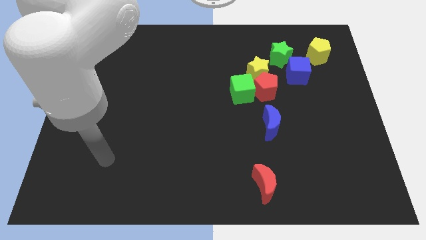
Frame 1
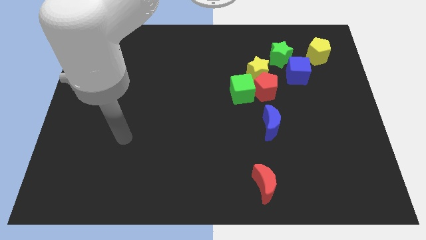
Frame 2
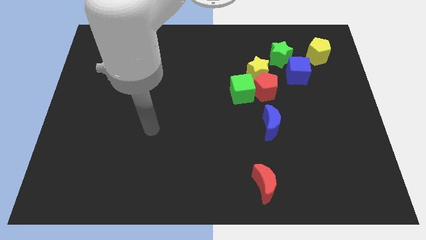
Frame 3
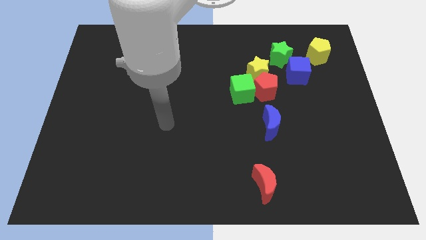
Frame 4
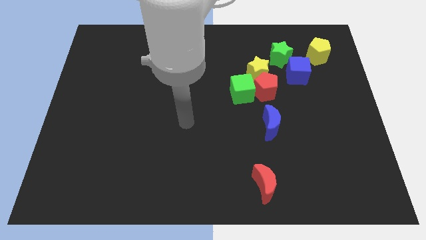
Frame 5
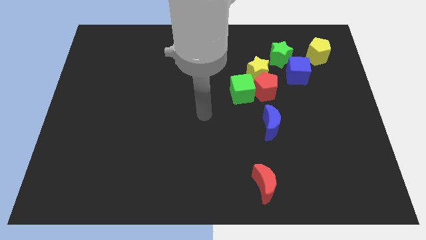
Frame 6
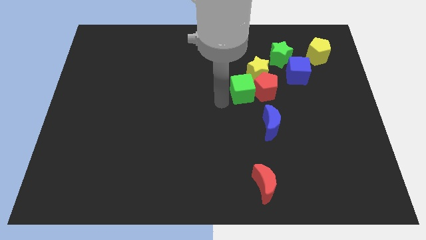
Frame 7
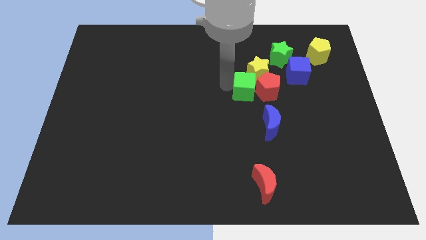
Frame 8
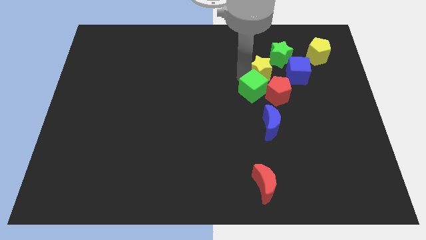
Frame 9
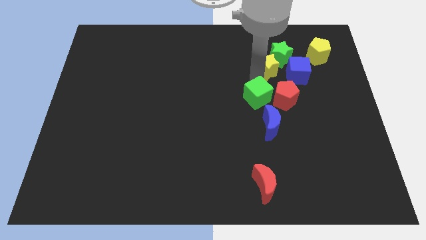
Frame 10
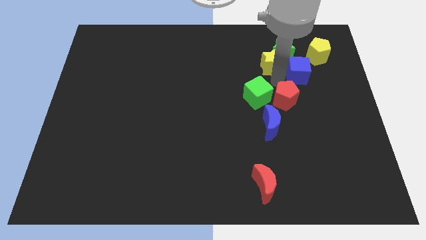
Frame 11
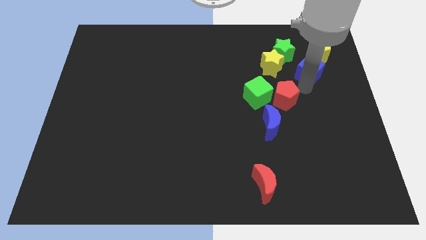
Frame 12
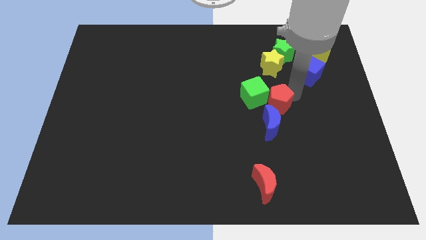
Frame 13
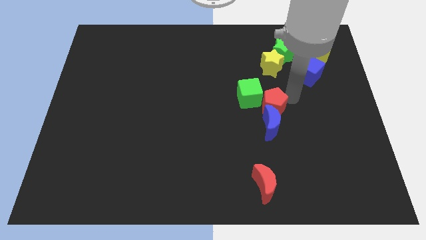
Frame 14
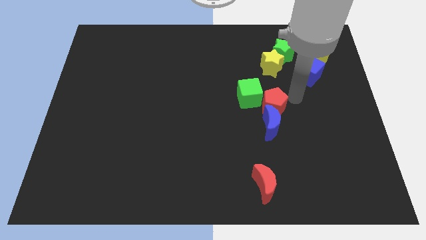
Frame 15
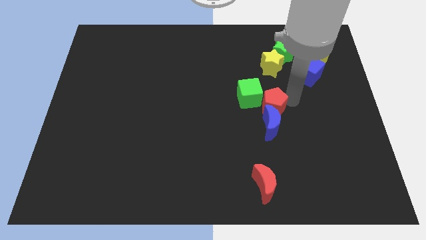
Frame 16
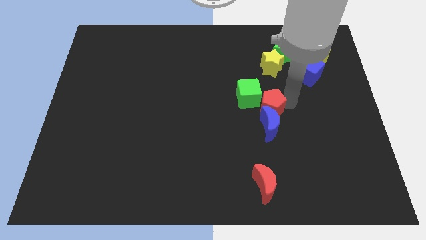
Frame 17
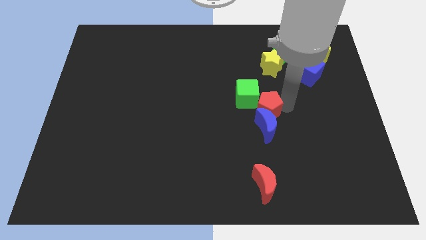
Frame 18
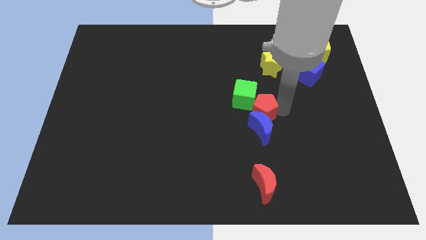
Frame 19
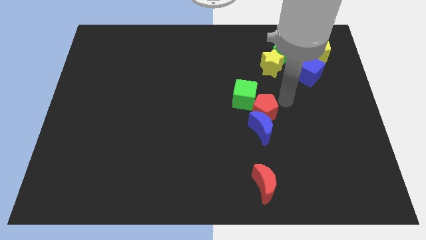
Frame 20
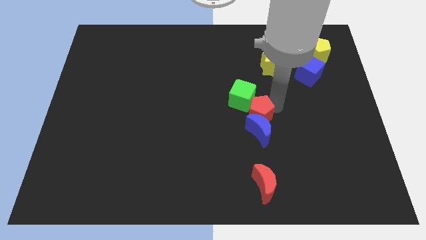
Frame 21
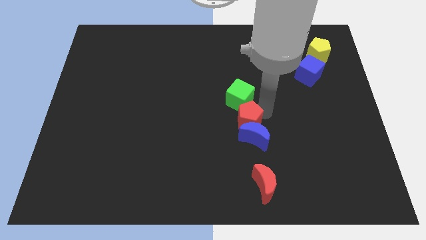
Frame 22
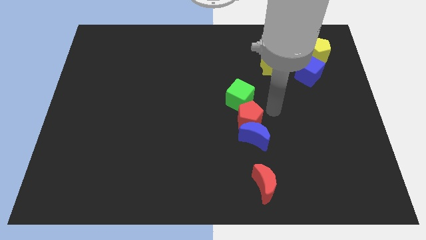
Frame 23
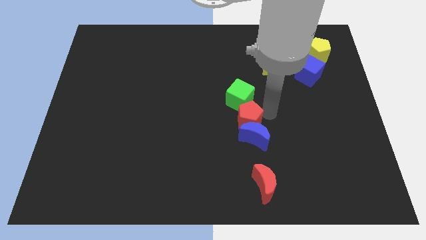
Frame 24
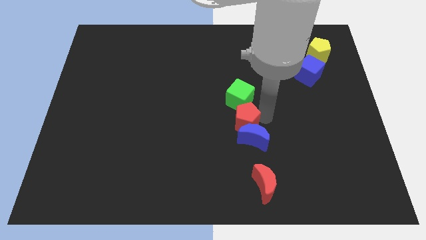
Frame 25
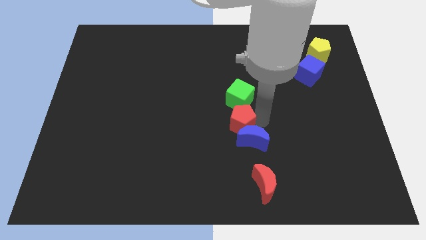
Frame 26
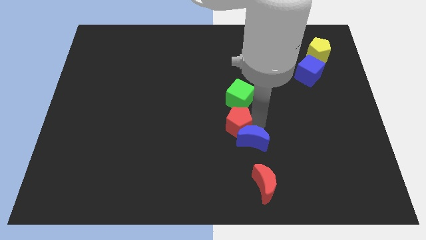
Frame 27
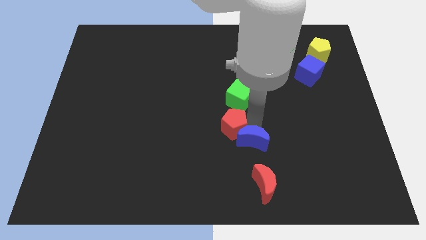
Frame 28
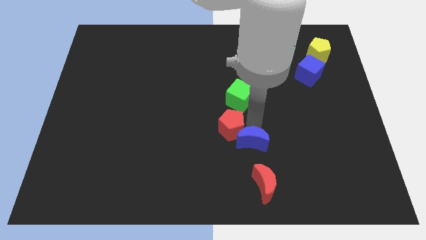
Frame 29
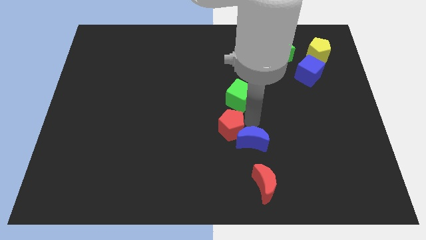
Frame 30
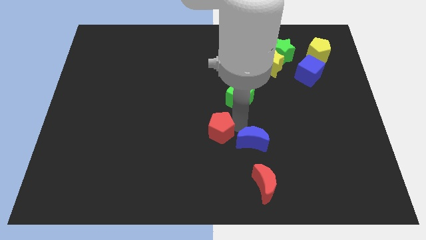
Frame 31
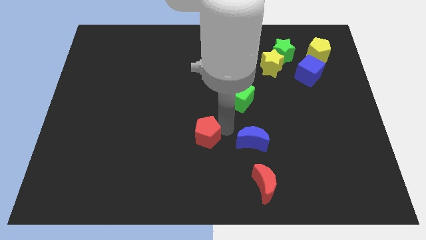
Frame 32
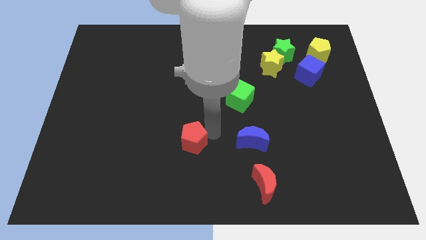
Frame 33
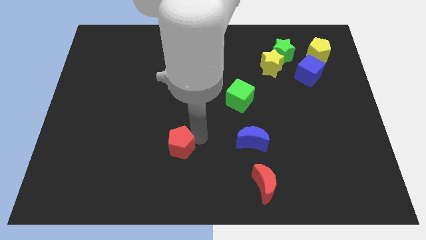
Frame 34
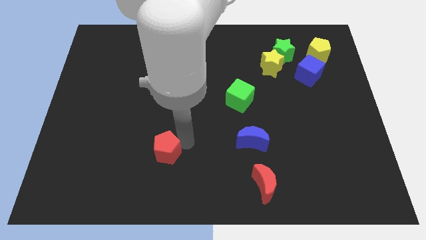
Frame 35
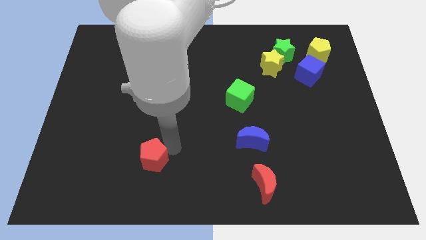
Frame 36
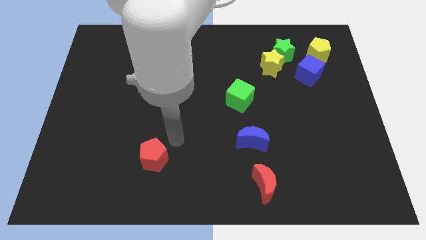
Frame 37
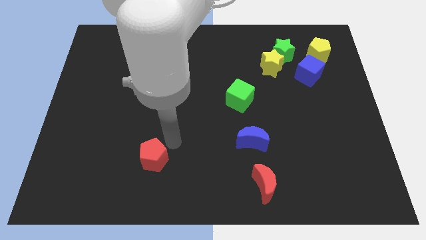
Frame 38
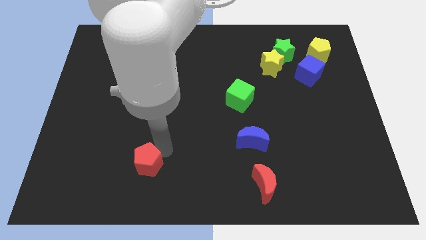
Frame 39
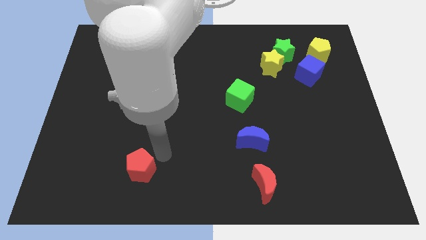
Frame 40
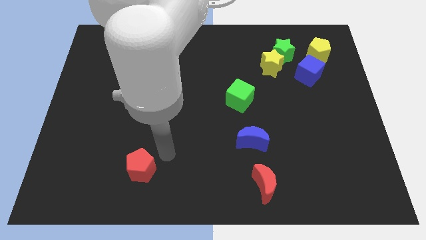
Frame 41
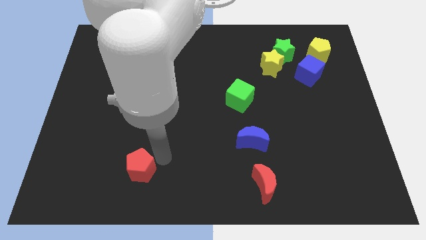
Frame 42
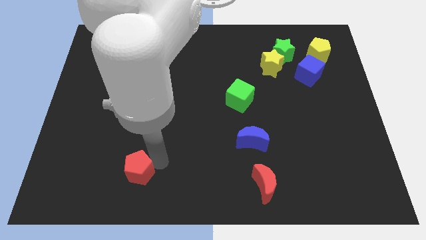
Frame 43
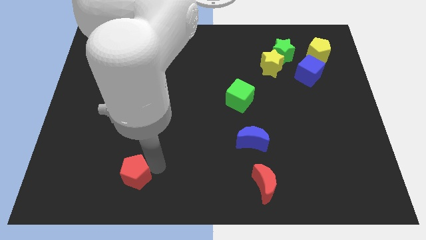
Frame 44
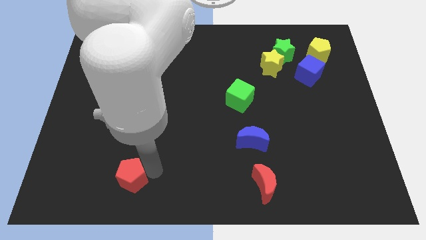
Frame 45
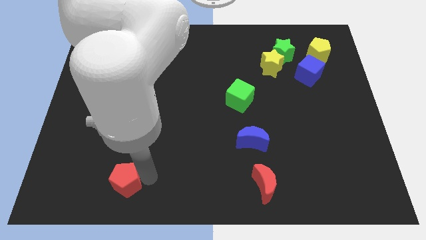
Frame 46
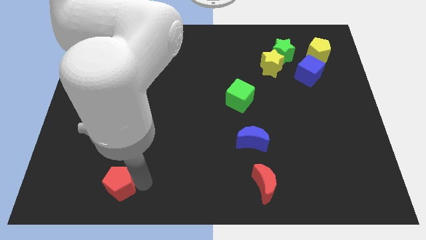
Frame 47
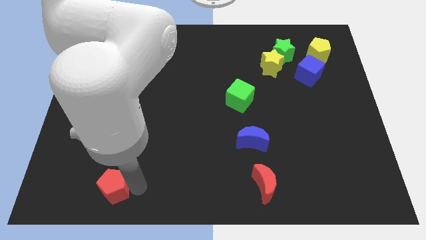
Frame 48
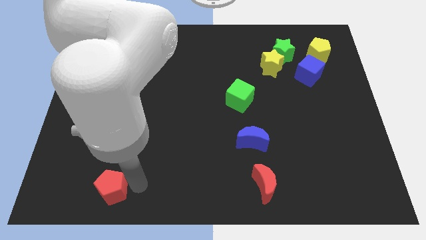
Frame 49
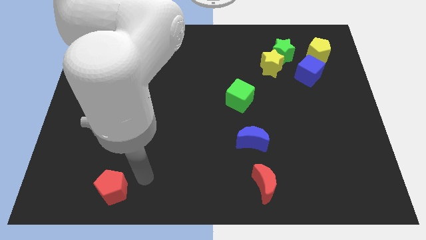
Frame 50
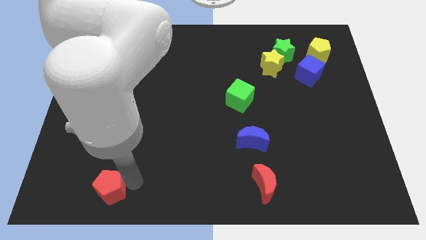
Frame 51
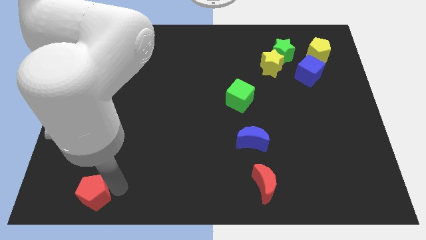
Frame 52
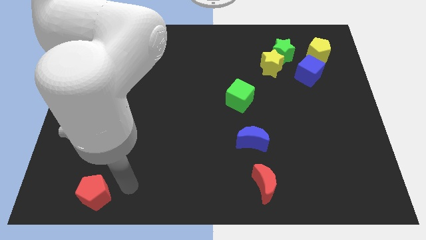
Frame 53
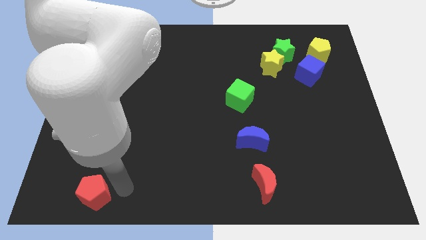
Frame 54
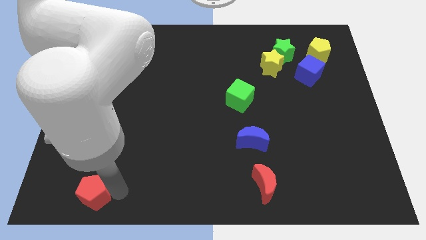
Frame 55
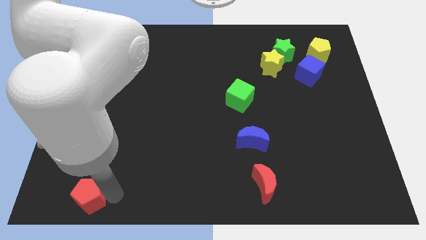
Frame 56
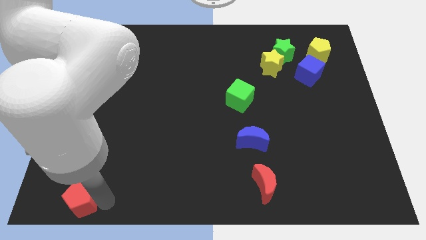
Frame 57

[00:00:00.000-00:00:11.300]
move the red pentagon to the bottom left

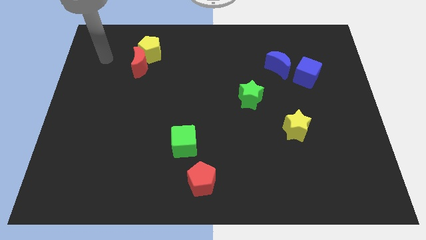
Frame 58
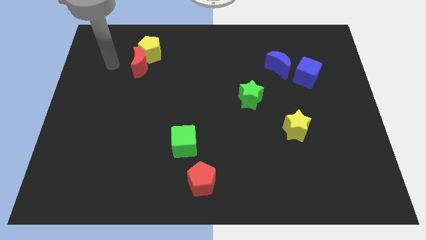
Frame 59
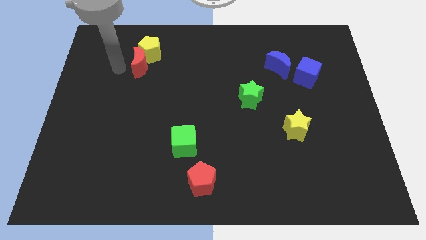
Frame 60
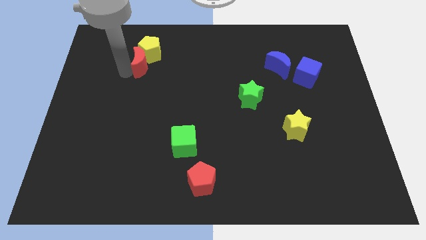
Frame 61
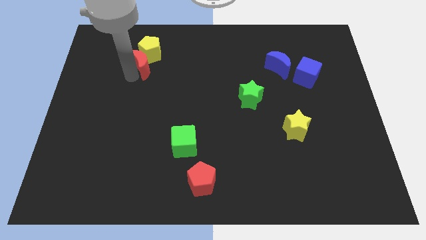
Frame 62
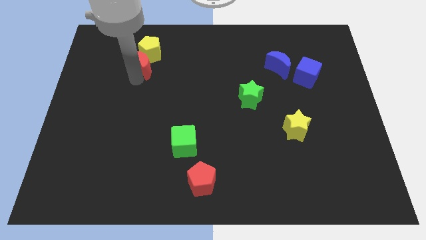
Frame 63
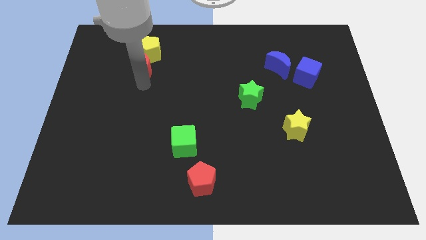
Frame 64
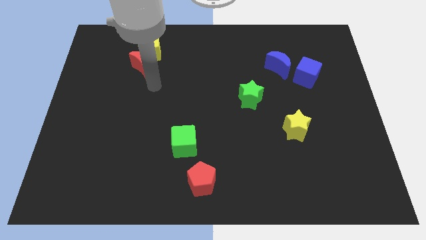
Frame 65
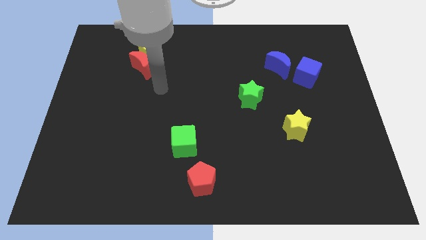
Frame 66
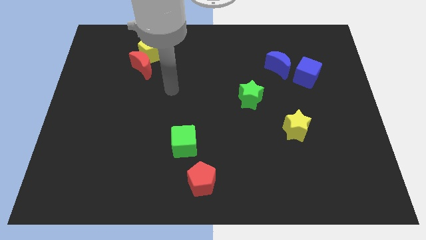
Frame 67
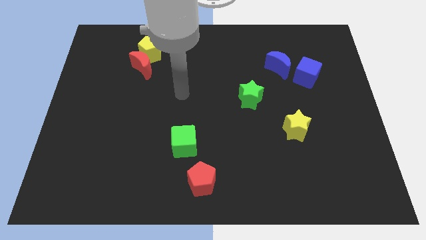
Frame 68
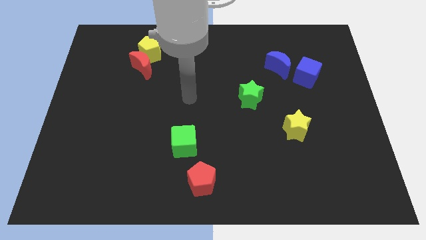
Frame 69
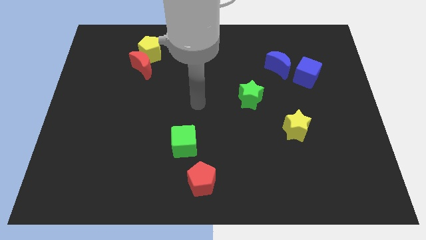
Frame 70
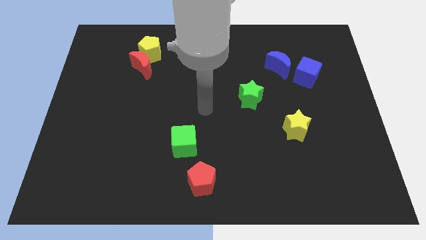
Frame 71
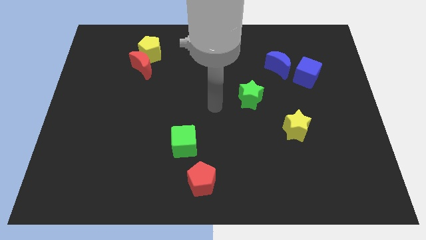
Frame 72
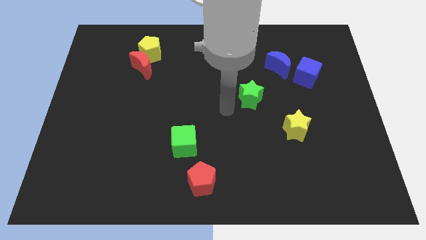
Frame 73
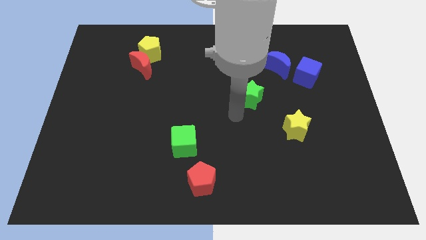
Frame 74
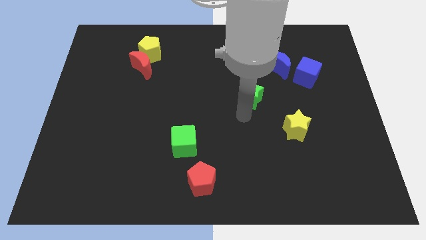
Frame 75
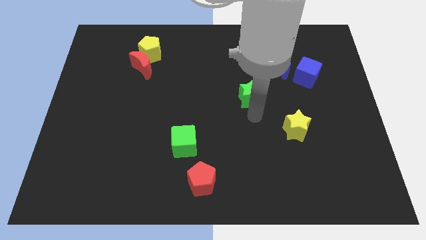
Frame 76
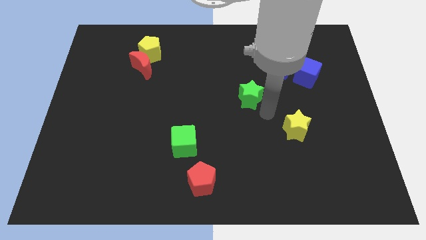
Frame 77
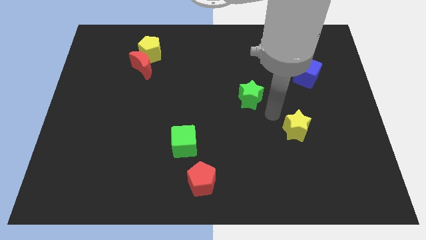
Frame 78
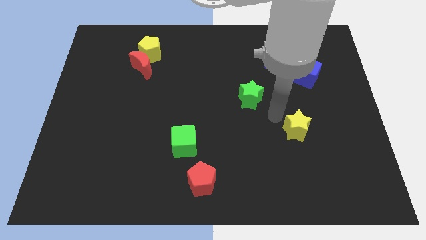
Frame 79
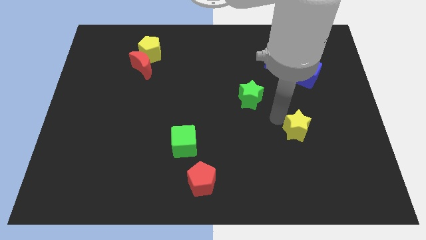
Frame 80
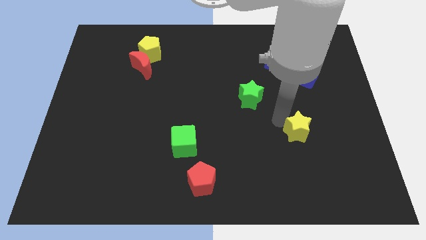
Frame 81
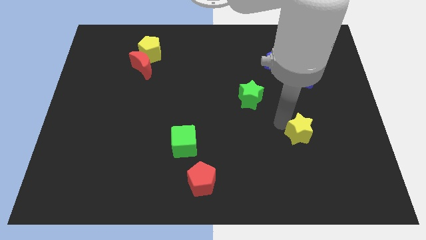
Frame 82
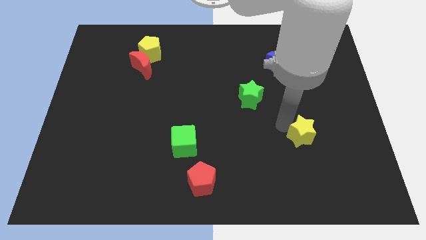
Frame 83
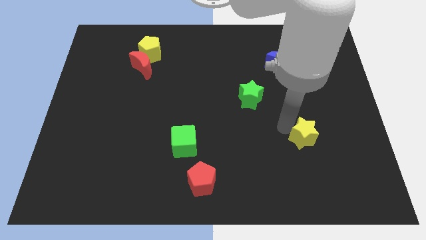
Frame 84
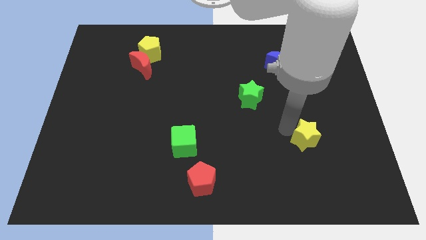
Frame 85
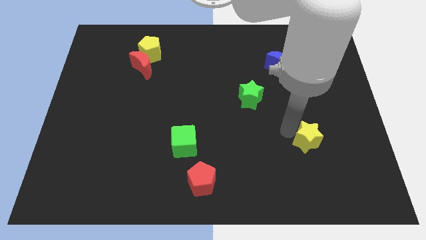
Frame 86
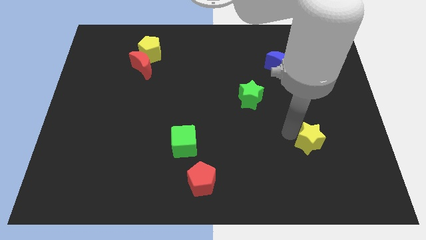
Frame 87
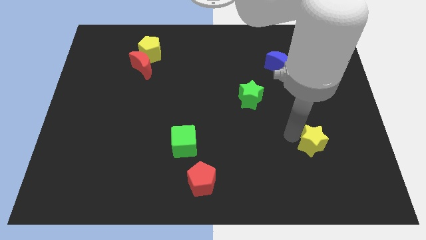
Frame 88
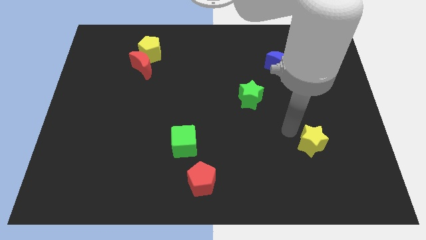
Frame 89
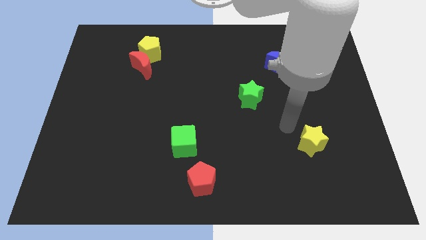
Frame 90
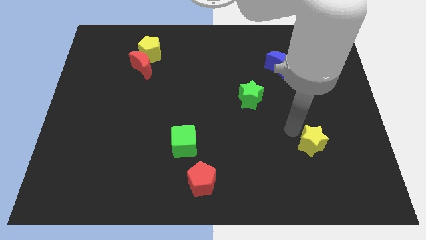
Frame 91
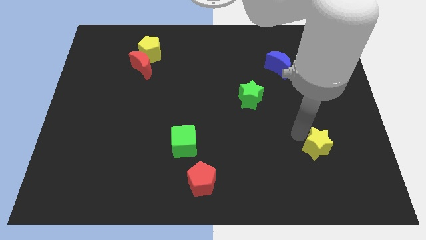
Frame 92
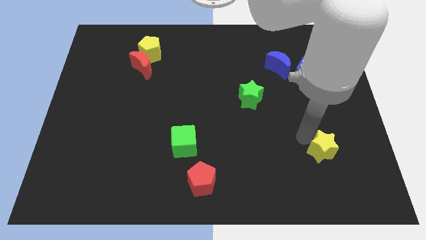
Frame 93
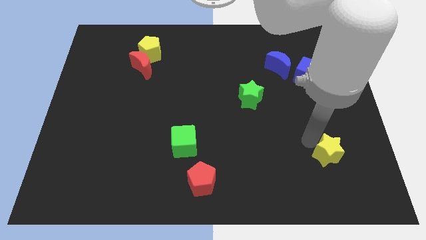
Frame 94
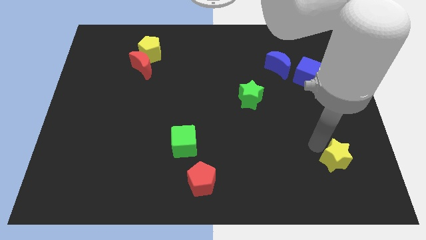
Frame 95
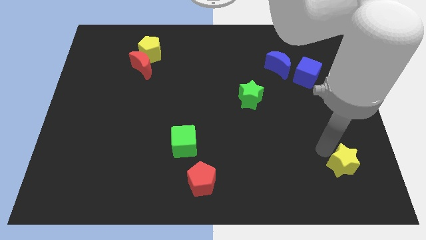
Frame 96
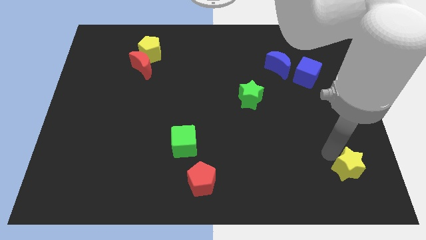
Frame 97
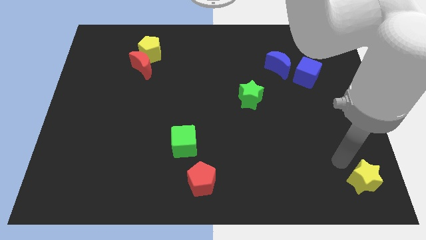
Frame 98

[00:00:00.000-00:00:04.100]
push the yellow star to the bottom right of the board
